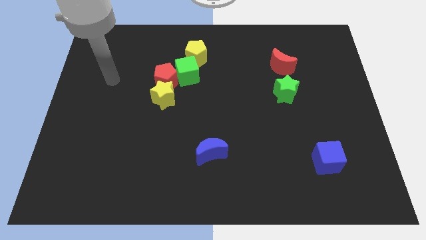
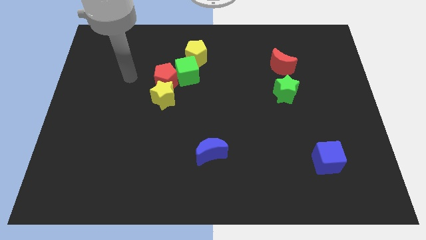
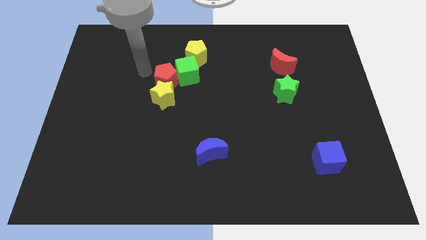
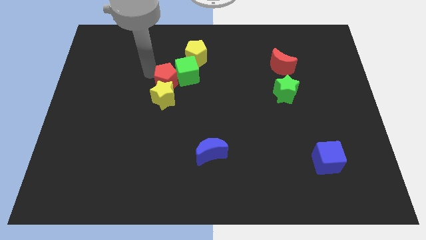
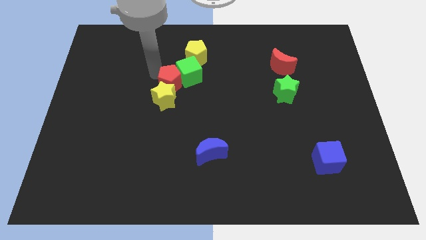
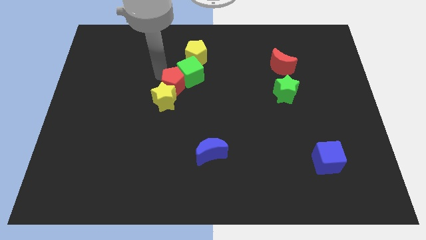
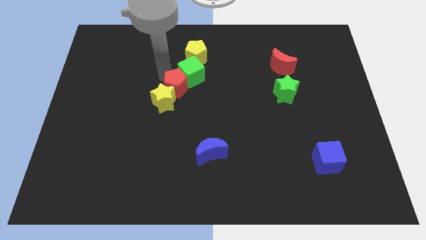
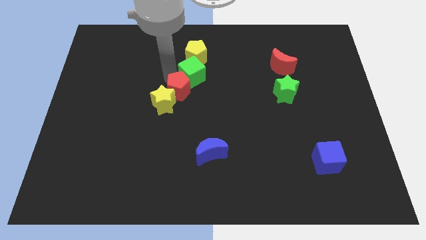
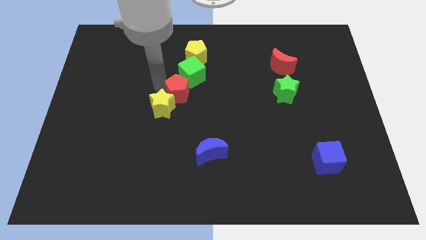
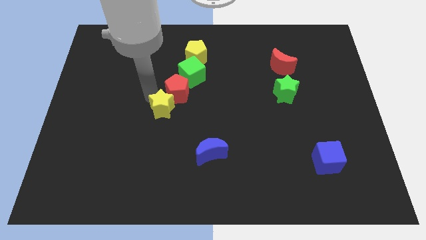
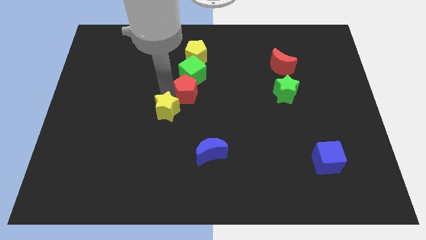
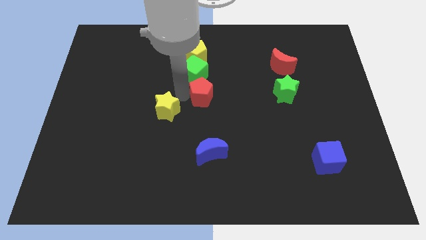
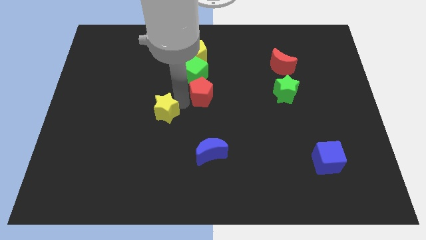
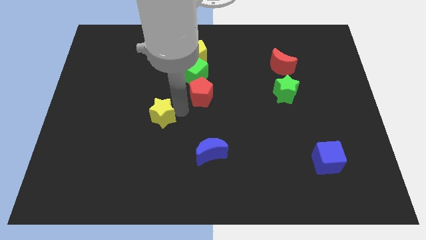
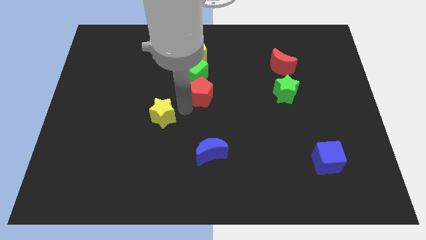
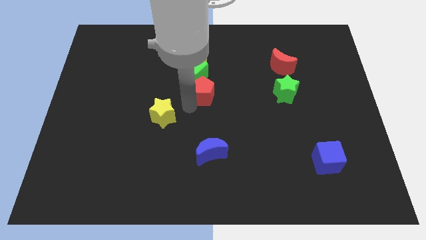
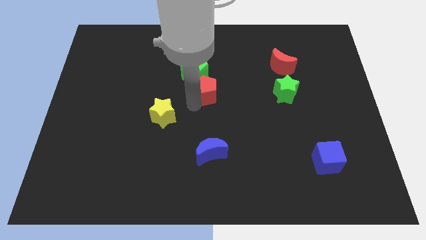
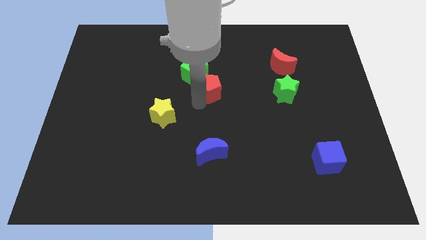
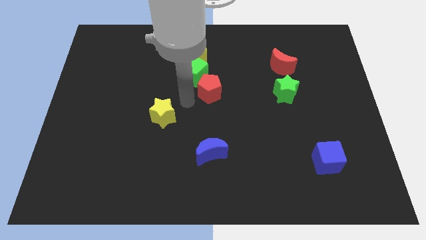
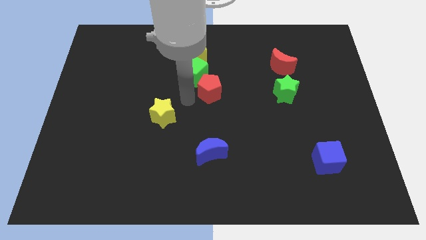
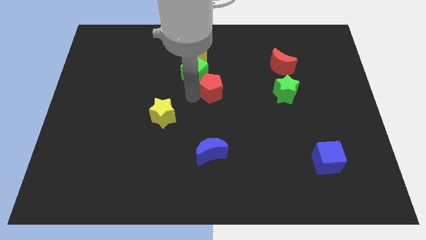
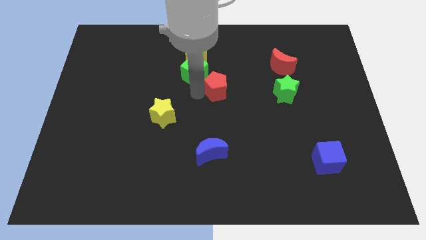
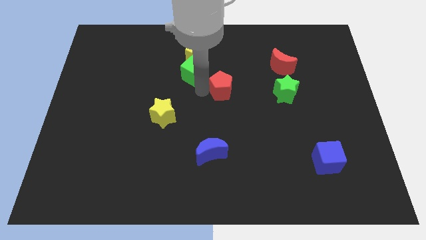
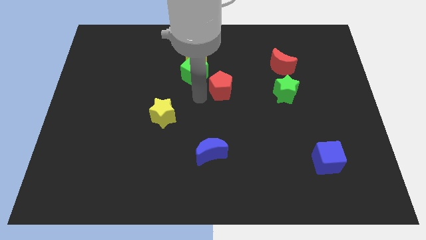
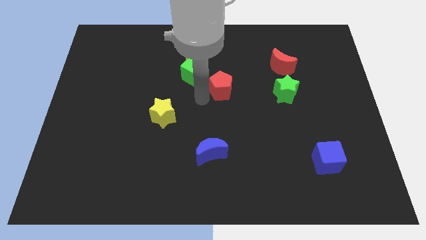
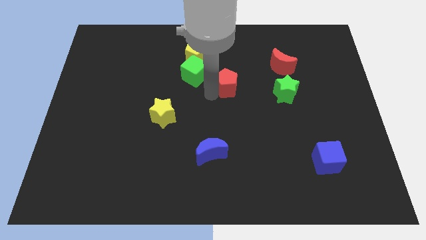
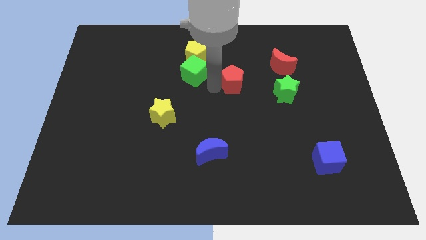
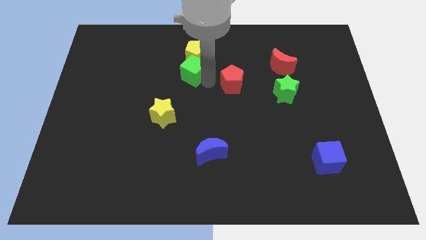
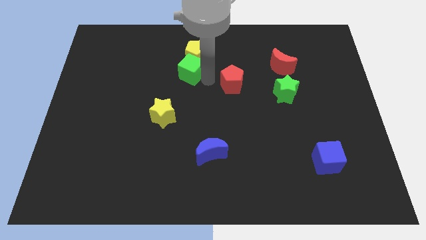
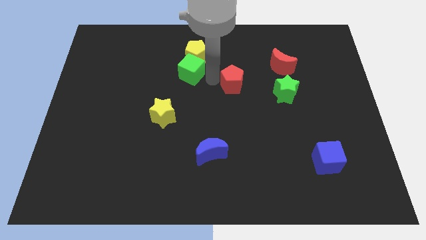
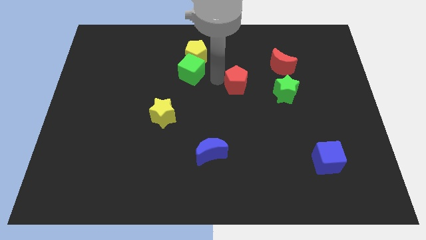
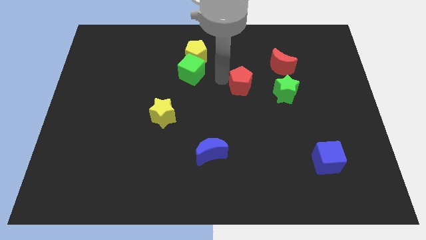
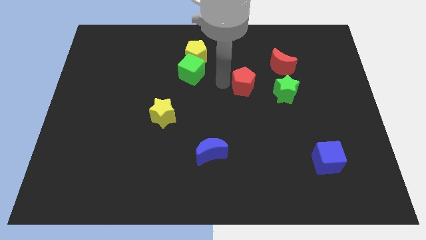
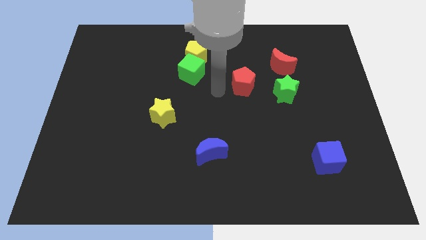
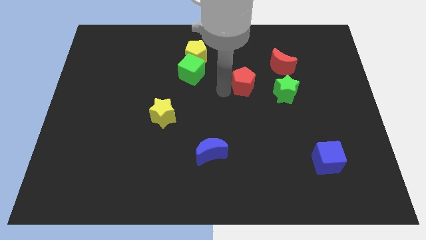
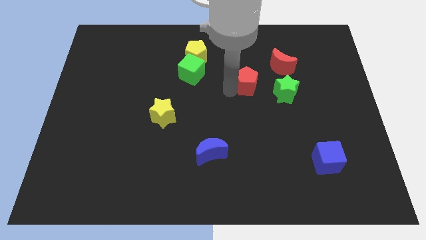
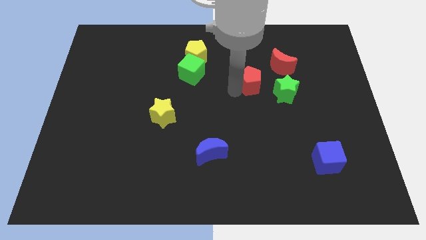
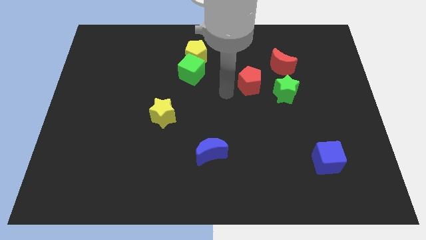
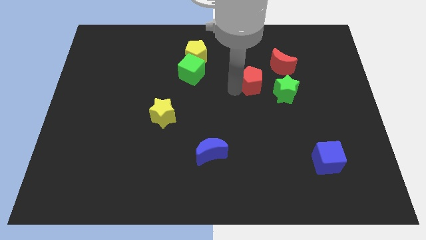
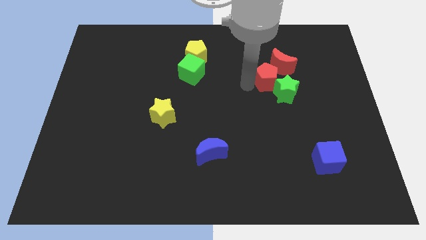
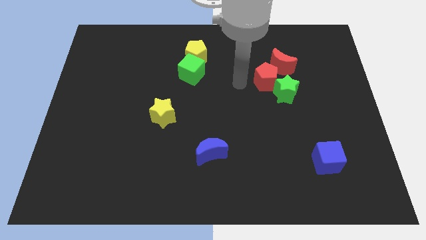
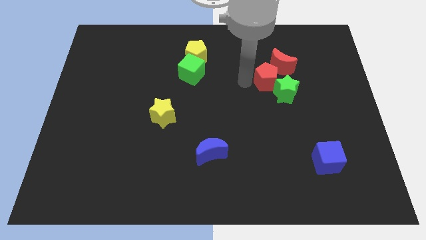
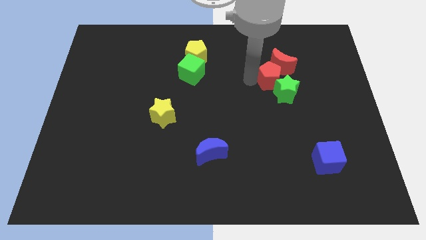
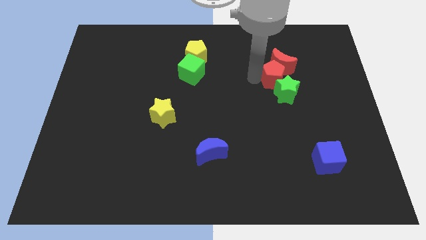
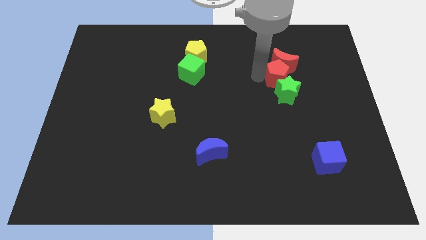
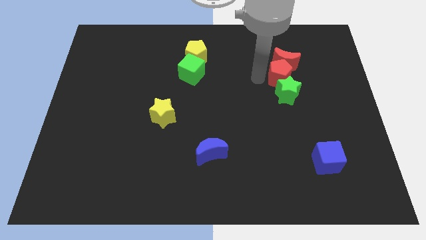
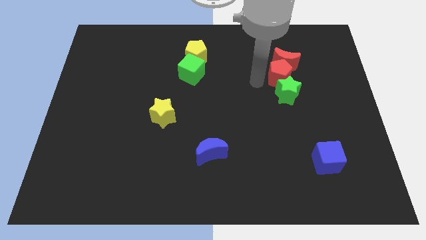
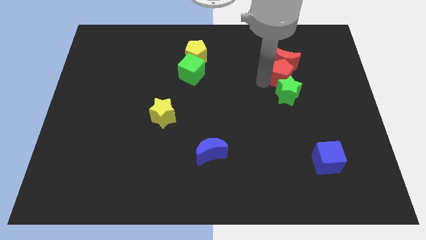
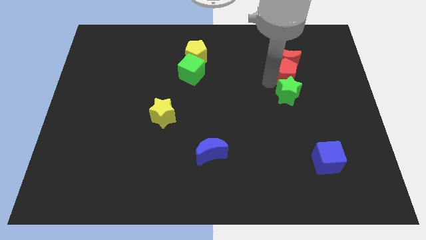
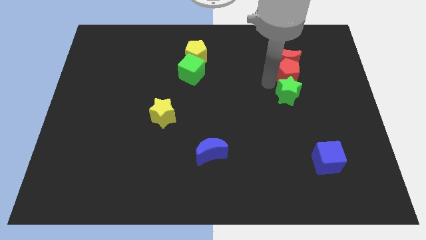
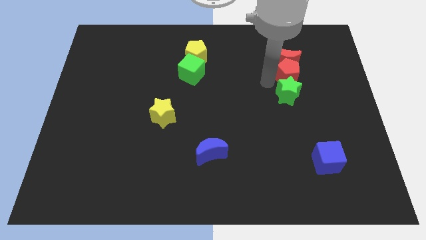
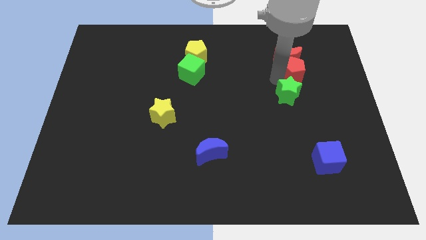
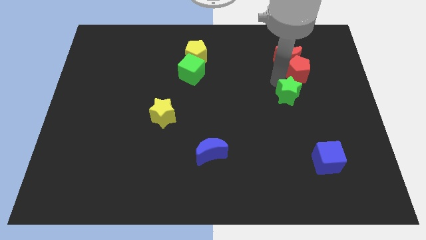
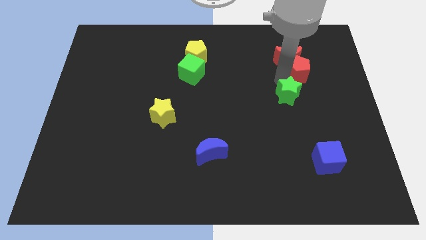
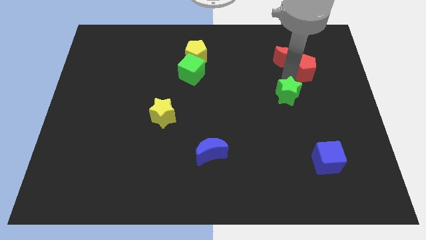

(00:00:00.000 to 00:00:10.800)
slide the red pentagon right of the red moon

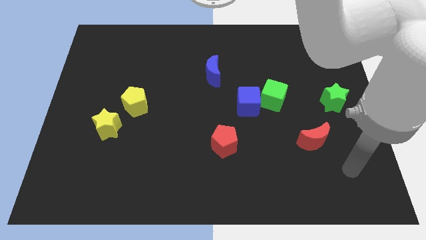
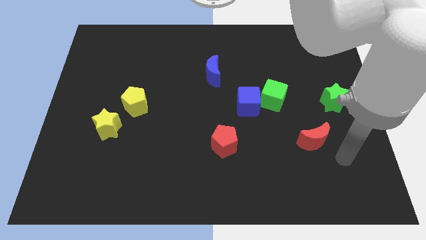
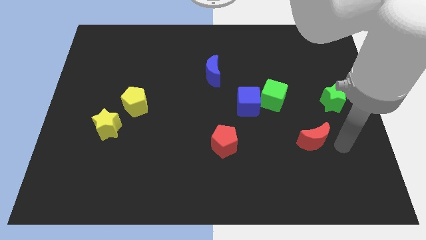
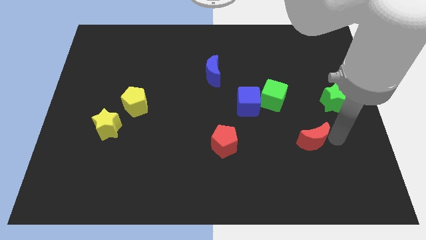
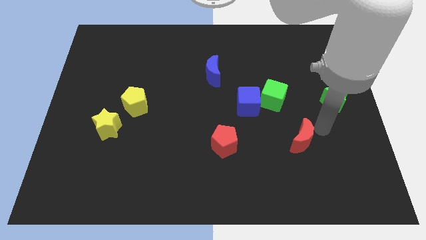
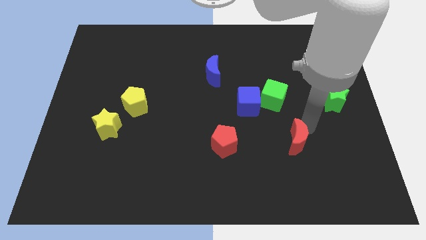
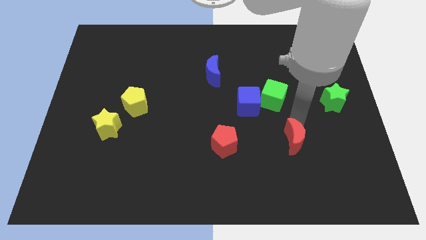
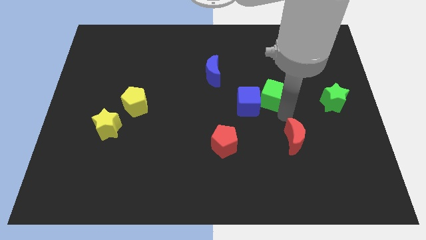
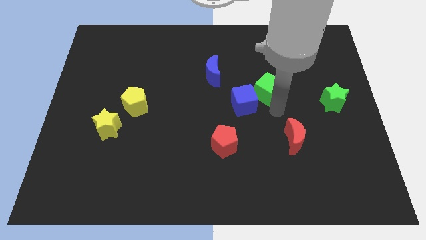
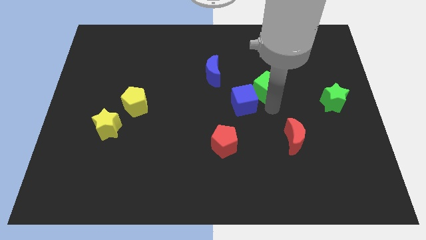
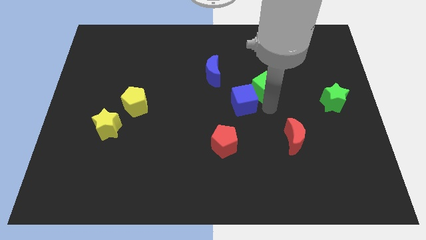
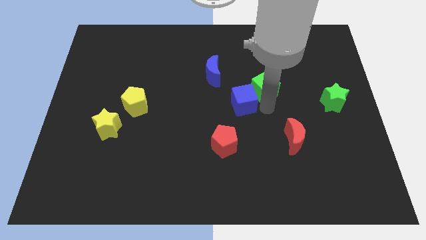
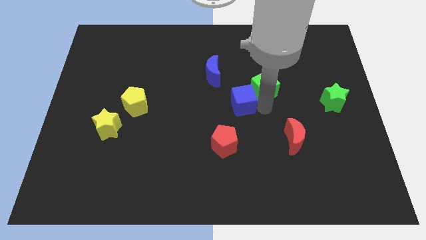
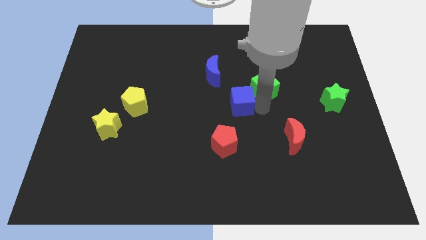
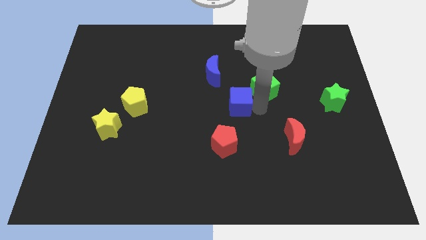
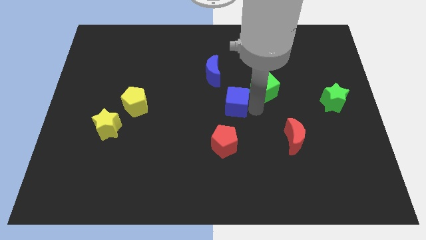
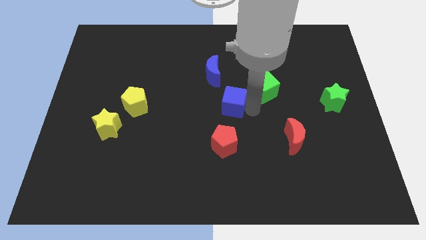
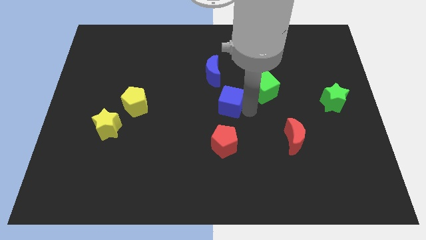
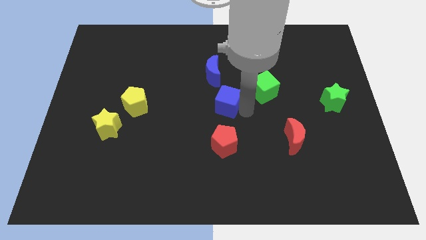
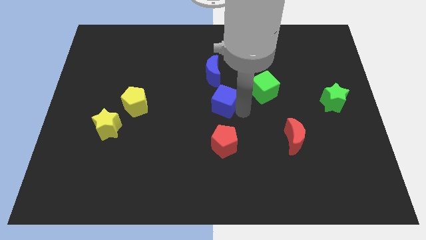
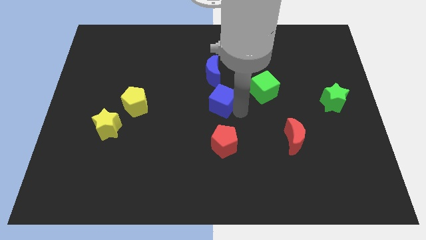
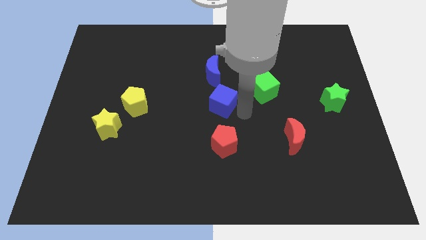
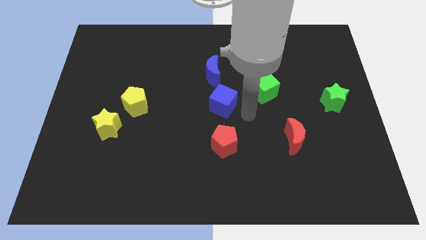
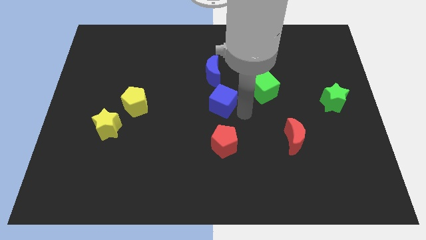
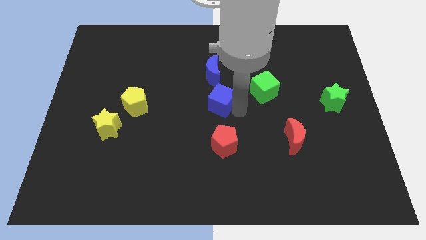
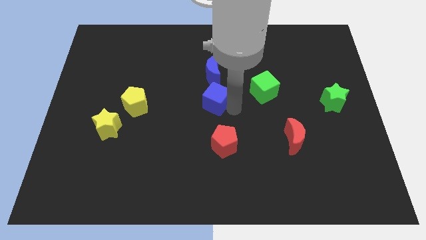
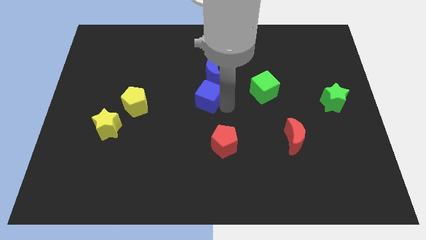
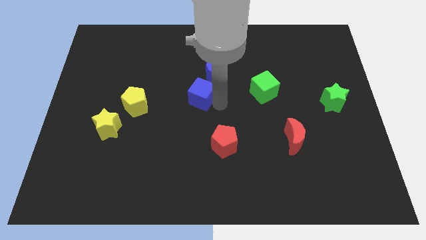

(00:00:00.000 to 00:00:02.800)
push the blue cube to the bottom left of the blue moon
